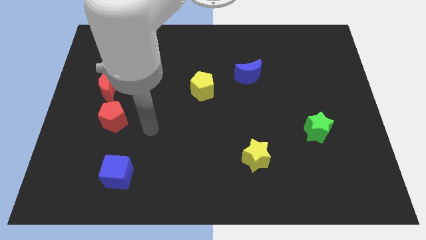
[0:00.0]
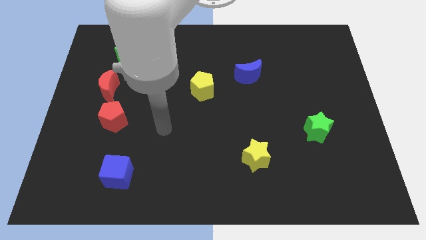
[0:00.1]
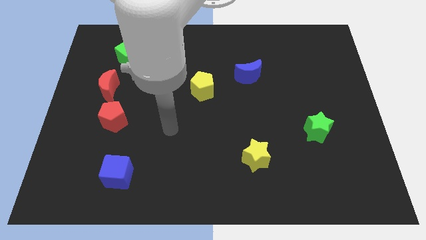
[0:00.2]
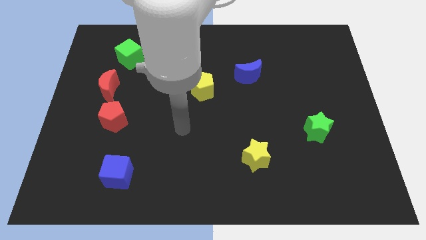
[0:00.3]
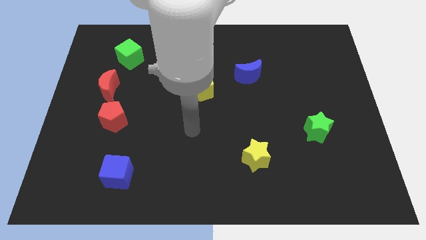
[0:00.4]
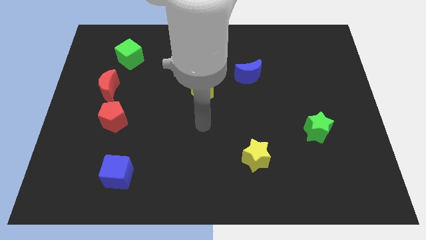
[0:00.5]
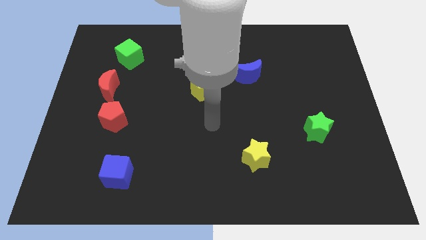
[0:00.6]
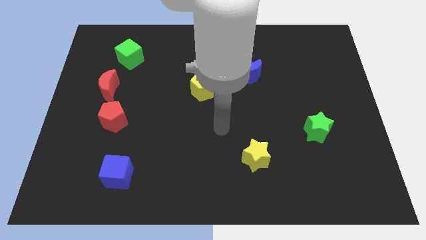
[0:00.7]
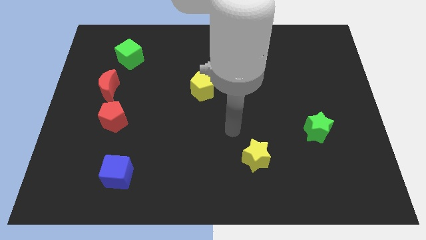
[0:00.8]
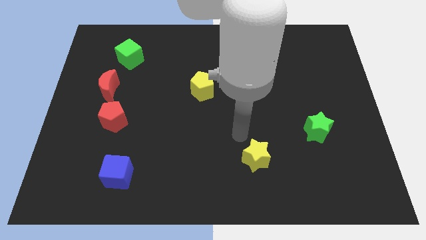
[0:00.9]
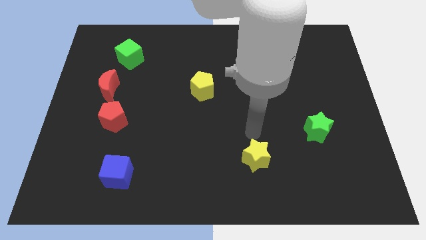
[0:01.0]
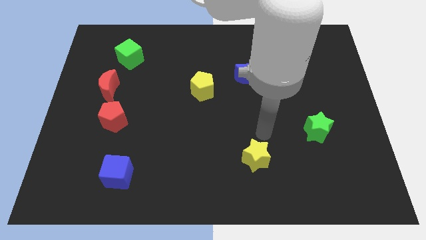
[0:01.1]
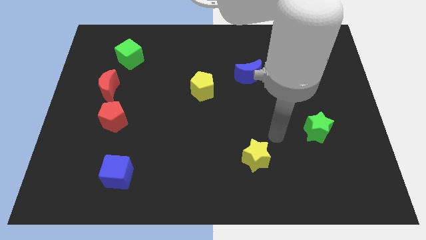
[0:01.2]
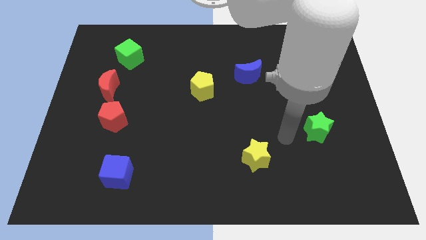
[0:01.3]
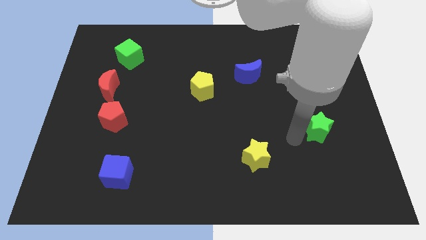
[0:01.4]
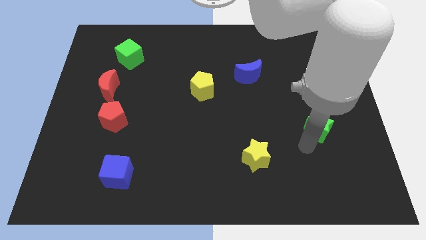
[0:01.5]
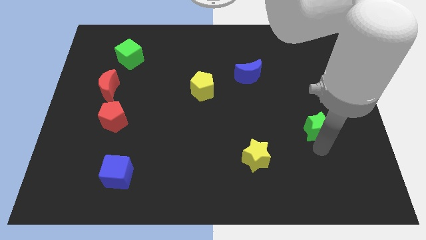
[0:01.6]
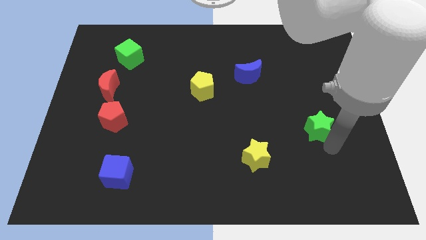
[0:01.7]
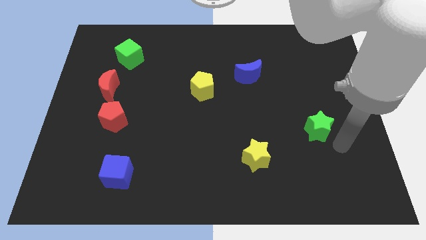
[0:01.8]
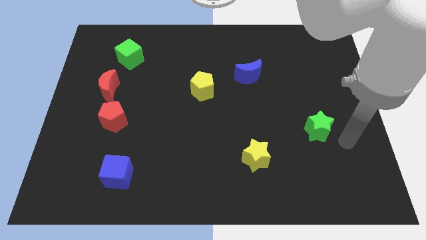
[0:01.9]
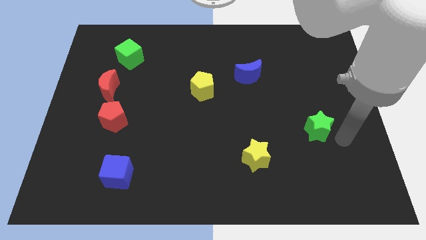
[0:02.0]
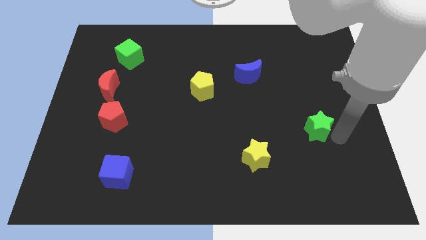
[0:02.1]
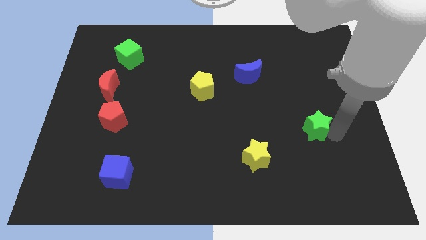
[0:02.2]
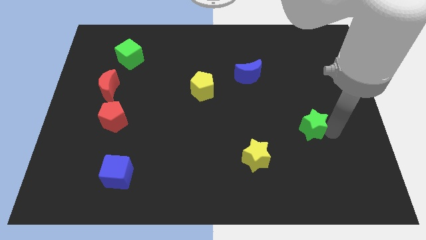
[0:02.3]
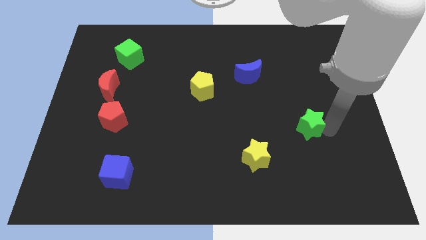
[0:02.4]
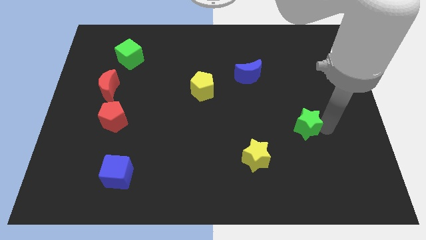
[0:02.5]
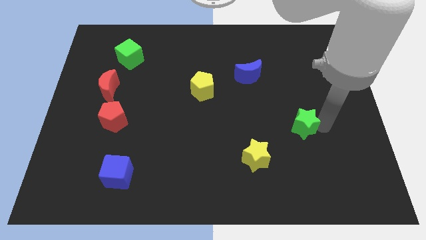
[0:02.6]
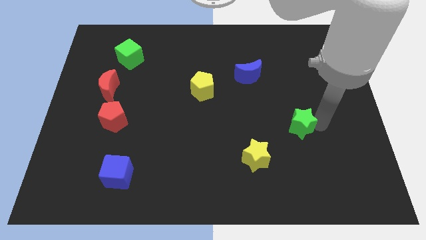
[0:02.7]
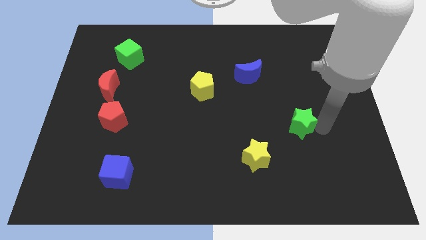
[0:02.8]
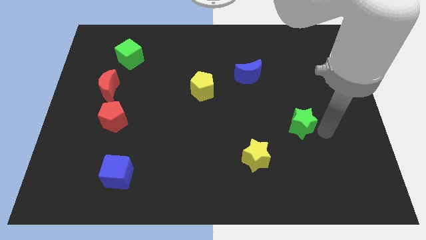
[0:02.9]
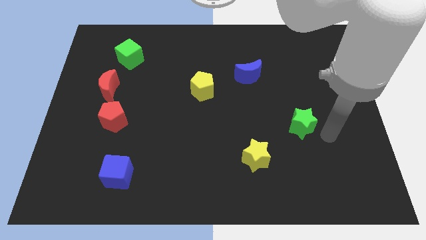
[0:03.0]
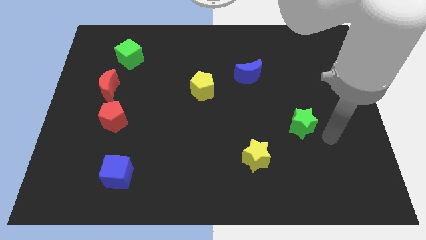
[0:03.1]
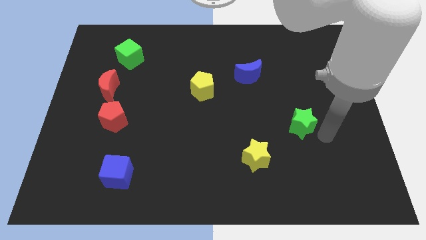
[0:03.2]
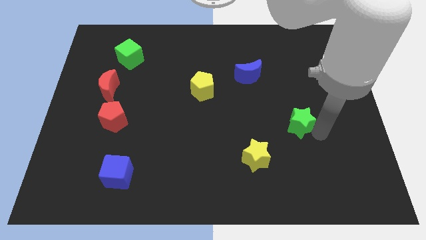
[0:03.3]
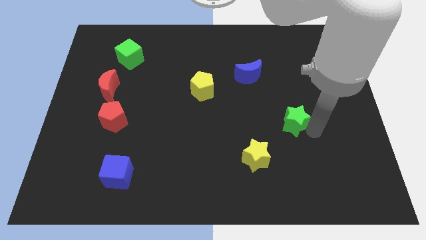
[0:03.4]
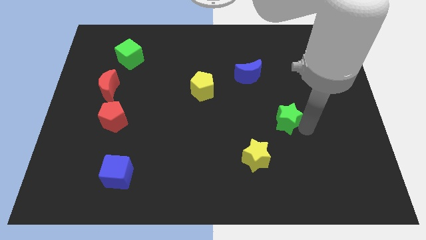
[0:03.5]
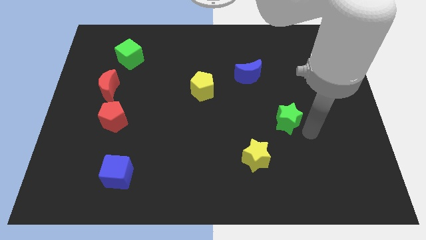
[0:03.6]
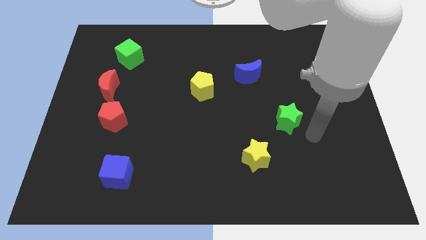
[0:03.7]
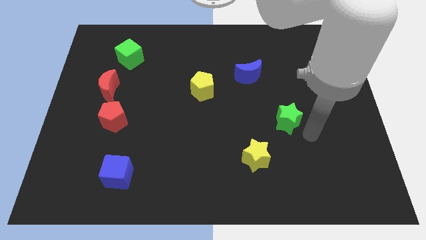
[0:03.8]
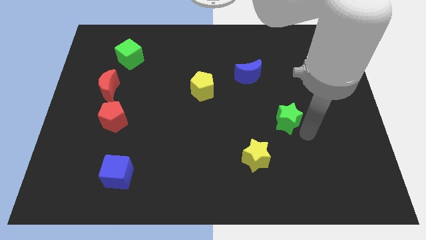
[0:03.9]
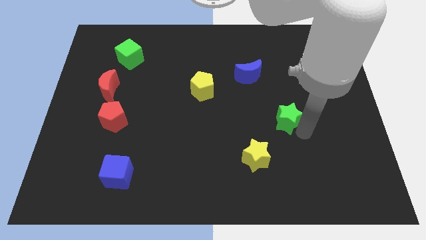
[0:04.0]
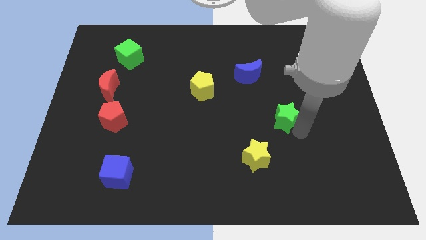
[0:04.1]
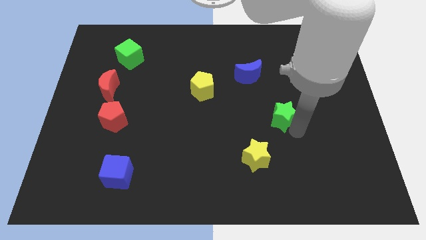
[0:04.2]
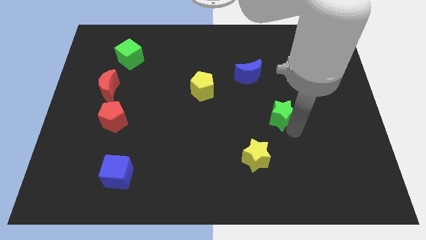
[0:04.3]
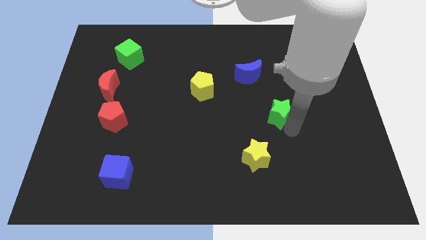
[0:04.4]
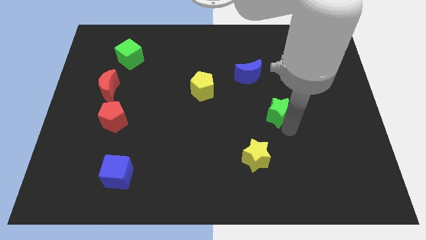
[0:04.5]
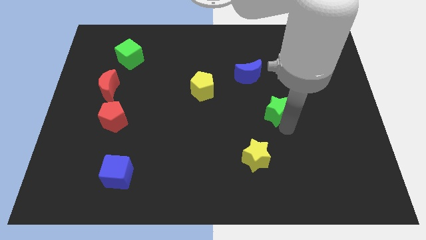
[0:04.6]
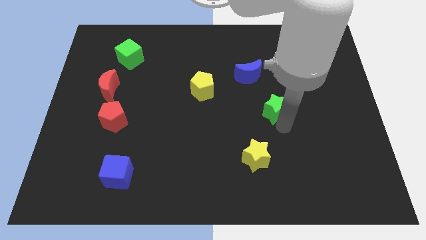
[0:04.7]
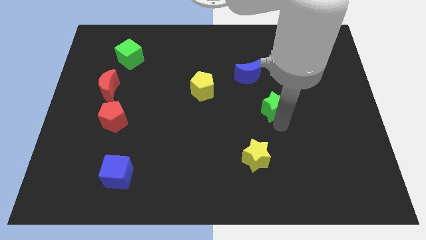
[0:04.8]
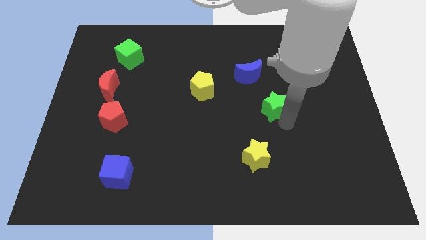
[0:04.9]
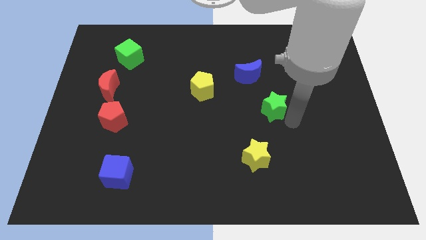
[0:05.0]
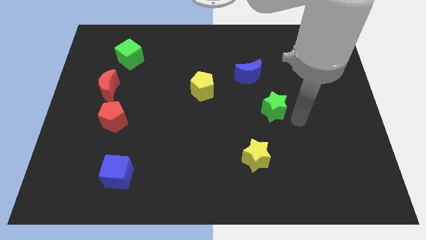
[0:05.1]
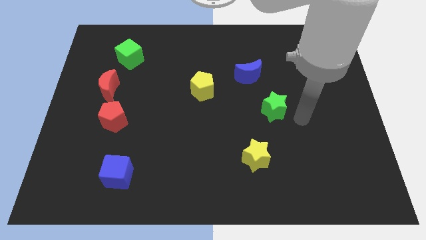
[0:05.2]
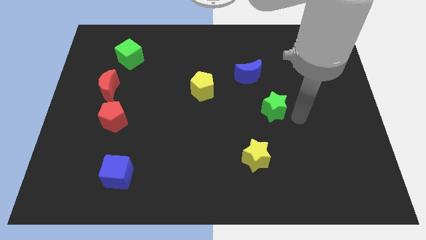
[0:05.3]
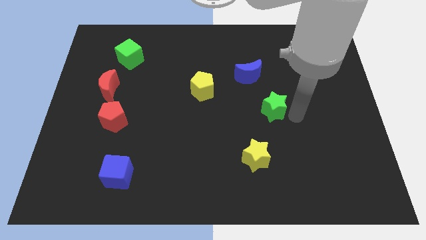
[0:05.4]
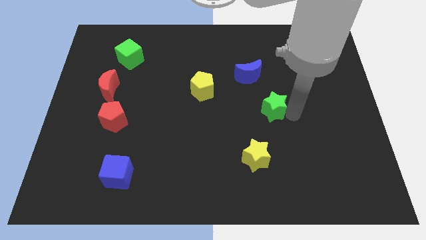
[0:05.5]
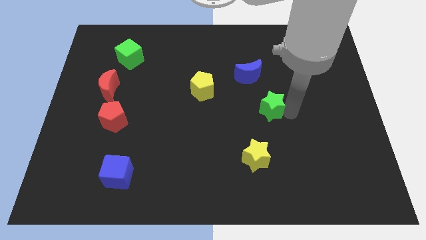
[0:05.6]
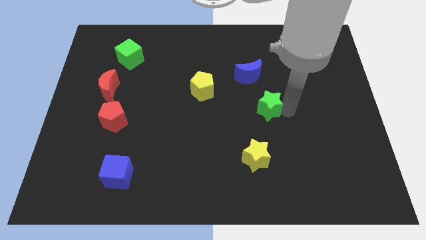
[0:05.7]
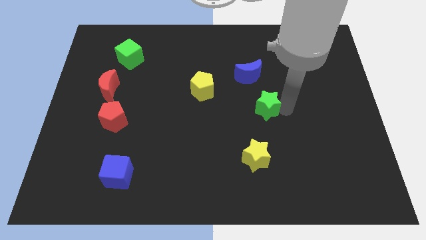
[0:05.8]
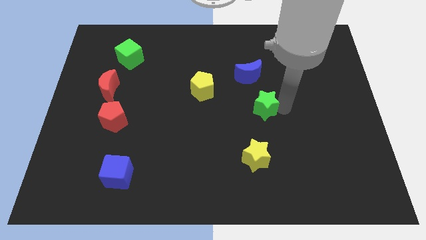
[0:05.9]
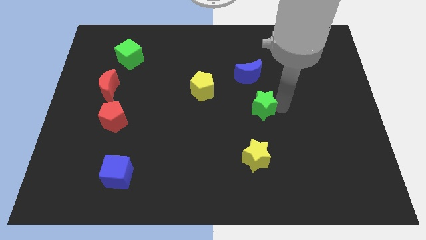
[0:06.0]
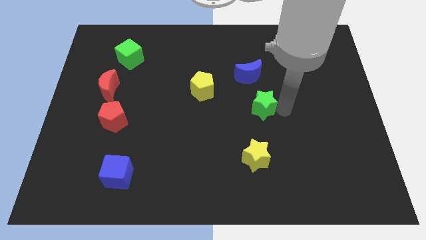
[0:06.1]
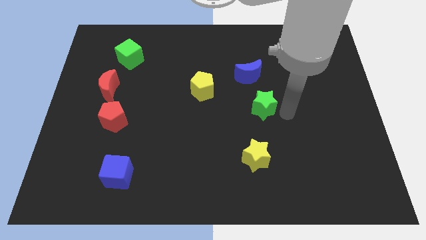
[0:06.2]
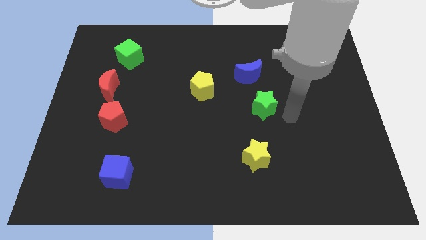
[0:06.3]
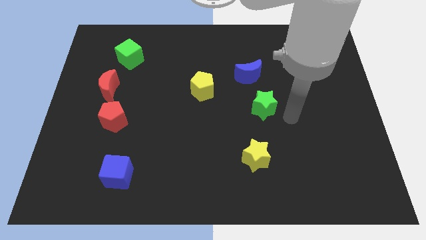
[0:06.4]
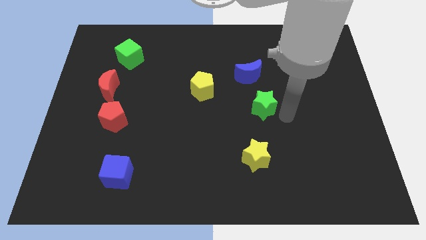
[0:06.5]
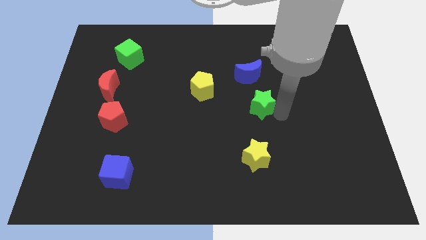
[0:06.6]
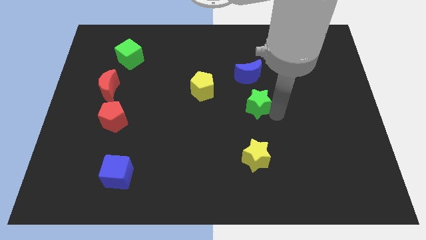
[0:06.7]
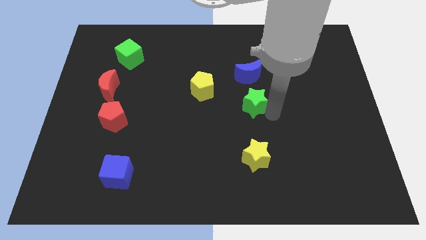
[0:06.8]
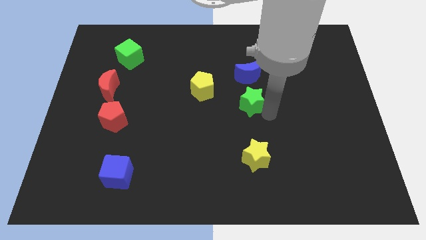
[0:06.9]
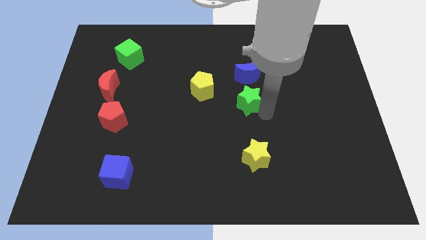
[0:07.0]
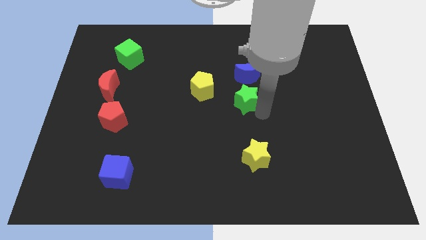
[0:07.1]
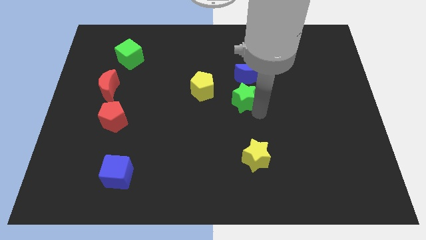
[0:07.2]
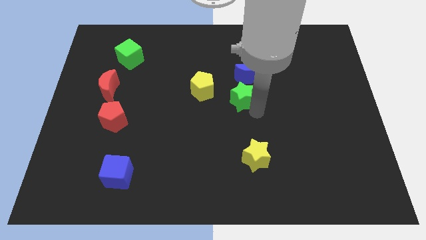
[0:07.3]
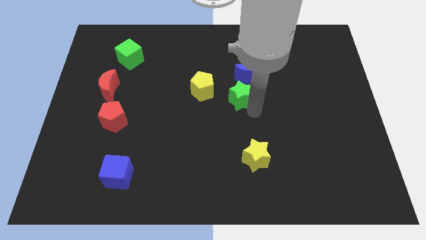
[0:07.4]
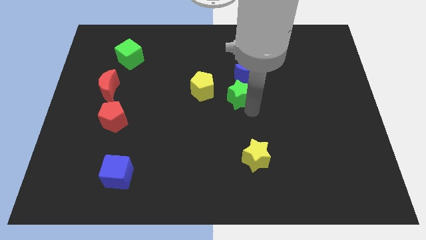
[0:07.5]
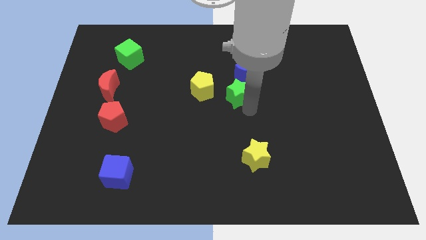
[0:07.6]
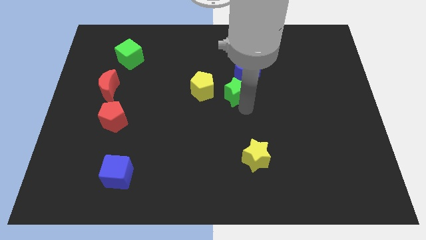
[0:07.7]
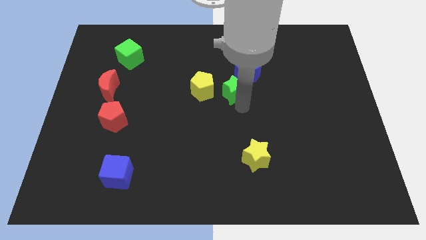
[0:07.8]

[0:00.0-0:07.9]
slide the green star up and left
